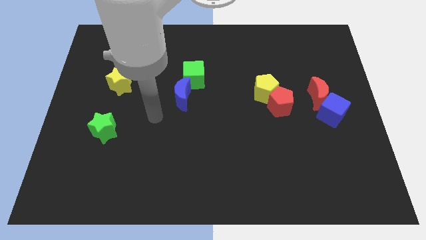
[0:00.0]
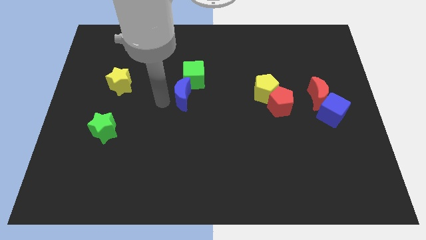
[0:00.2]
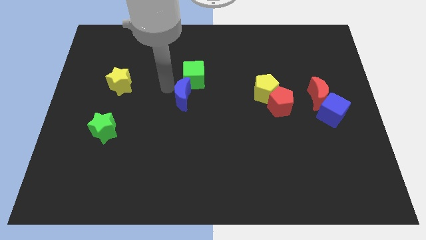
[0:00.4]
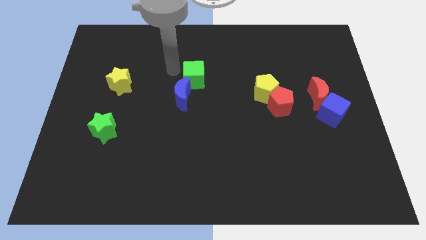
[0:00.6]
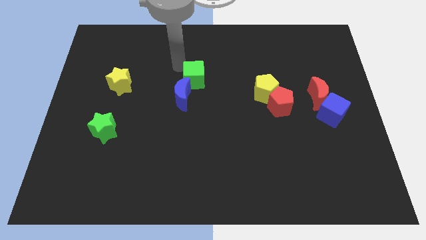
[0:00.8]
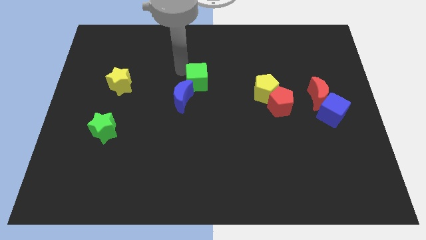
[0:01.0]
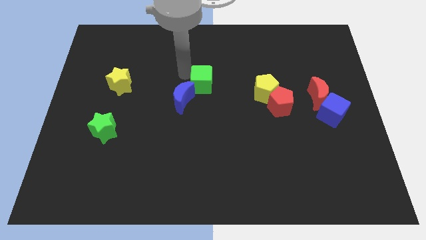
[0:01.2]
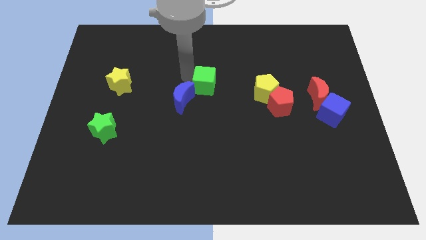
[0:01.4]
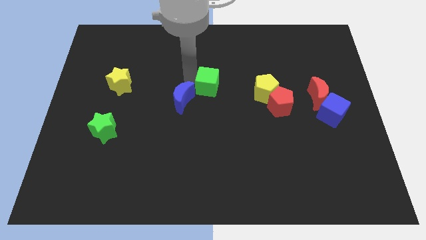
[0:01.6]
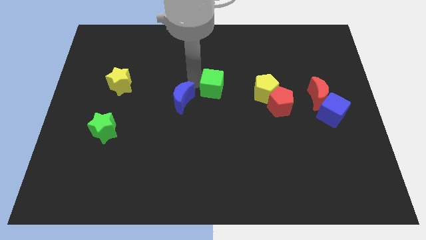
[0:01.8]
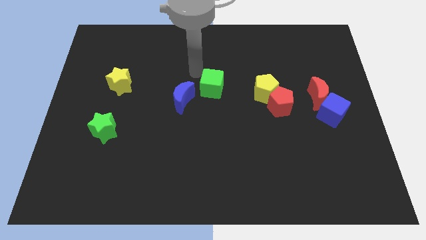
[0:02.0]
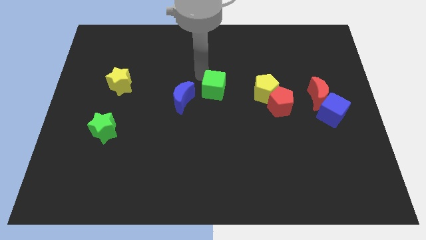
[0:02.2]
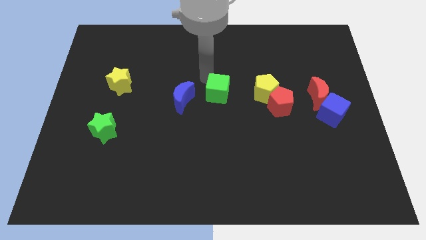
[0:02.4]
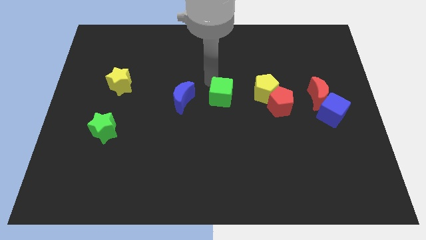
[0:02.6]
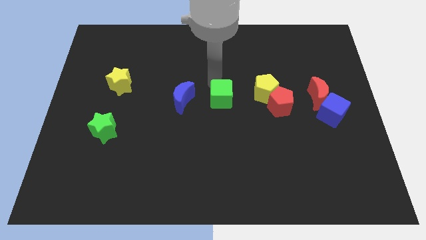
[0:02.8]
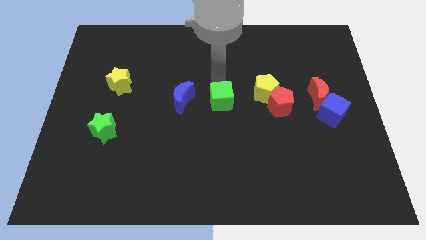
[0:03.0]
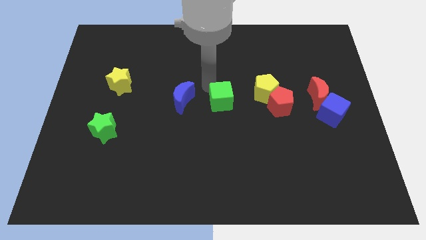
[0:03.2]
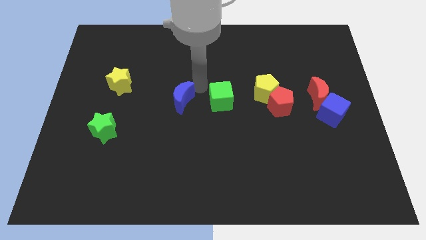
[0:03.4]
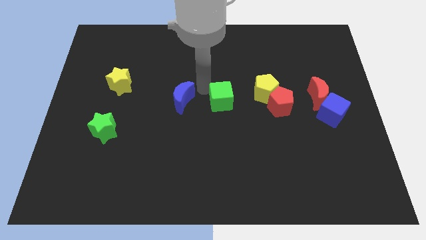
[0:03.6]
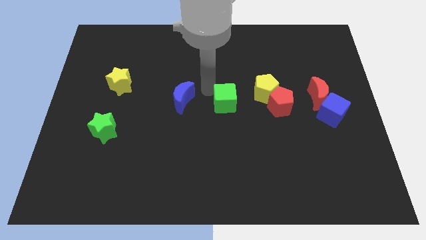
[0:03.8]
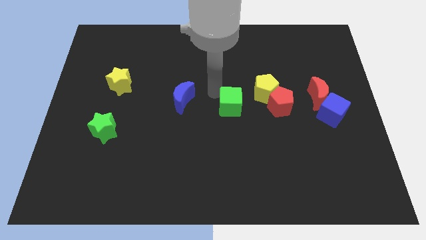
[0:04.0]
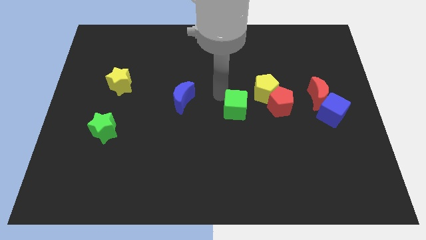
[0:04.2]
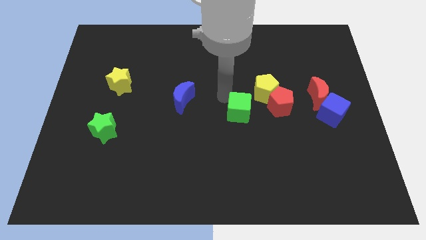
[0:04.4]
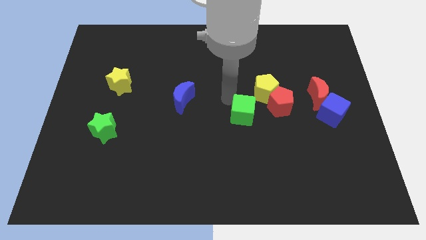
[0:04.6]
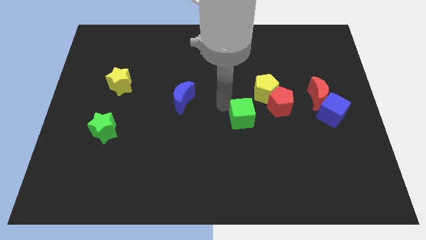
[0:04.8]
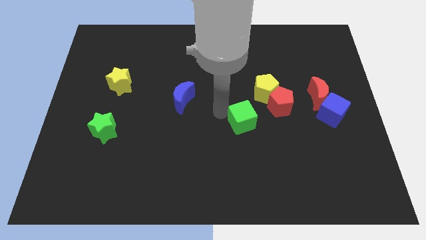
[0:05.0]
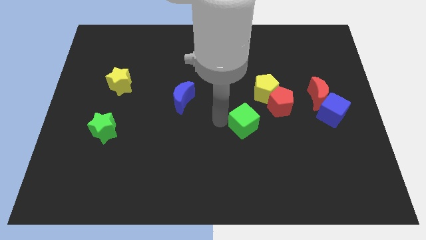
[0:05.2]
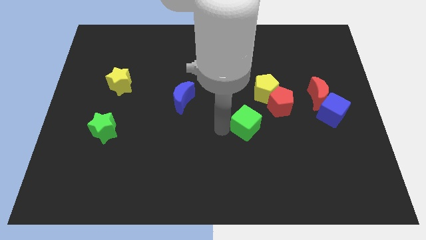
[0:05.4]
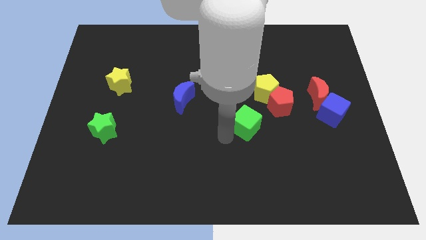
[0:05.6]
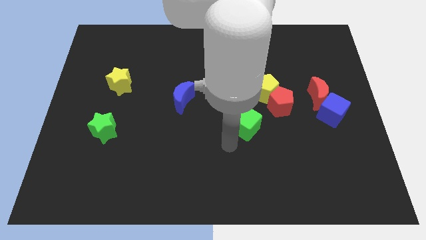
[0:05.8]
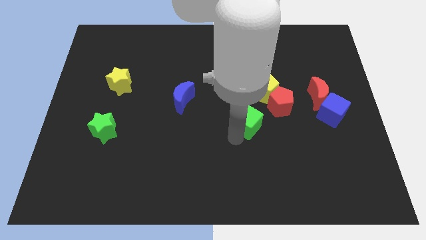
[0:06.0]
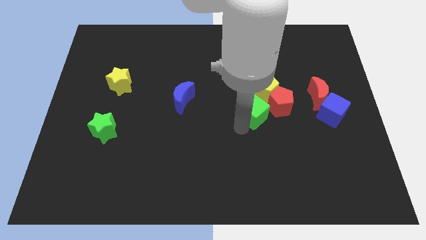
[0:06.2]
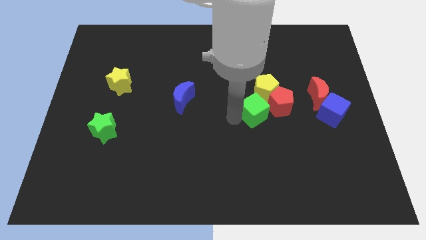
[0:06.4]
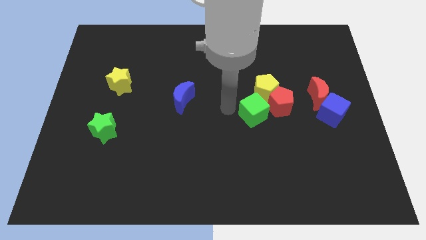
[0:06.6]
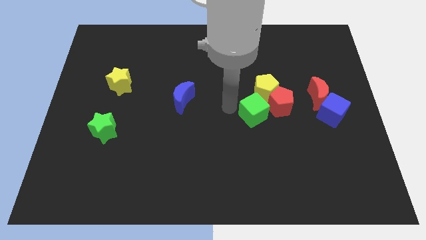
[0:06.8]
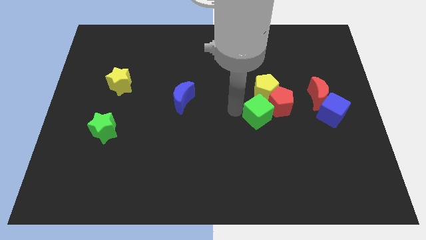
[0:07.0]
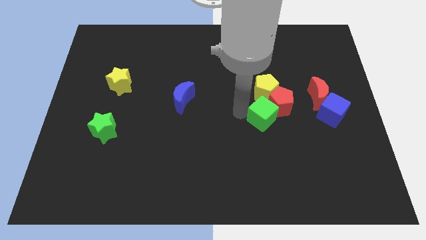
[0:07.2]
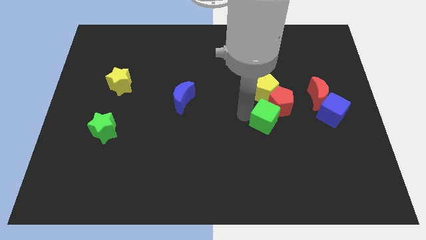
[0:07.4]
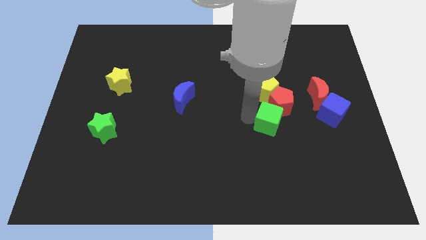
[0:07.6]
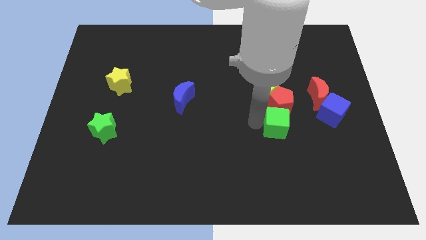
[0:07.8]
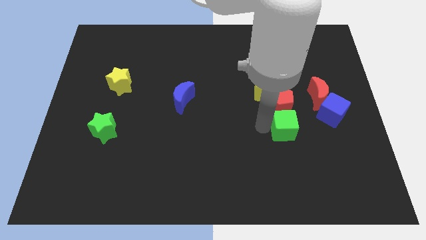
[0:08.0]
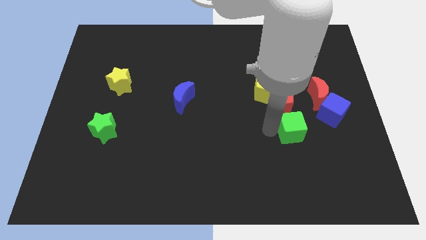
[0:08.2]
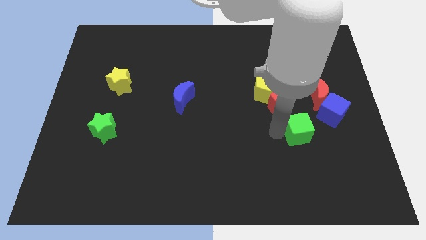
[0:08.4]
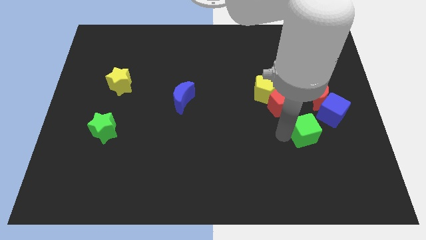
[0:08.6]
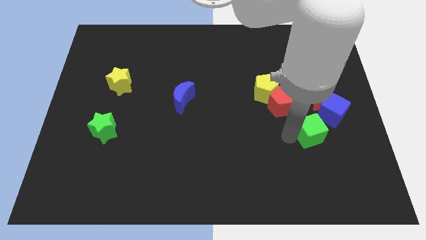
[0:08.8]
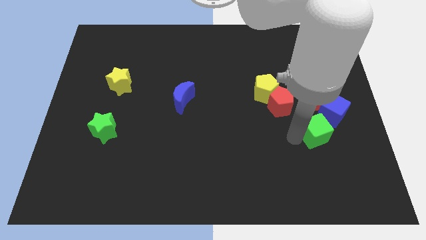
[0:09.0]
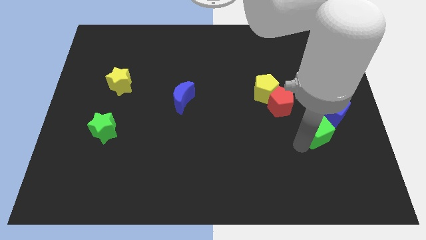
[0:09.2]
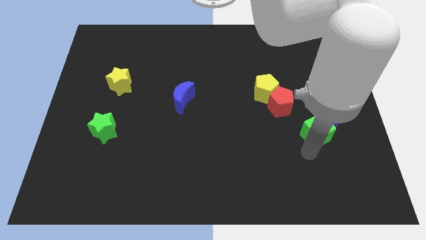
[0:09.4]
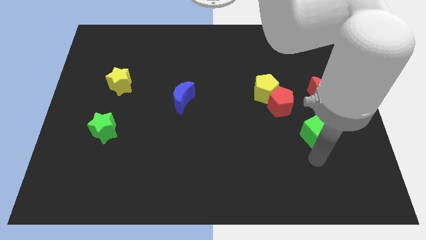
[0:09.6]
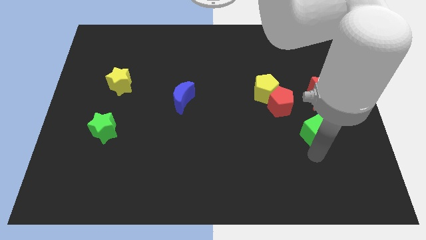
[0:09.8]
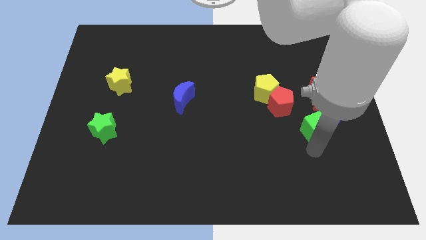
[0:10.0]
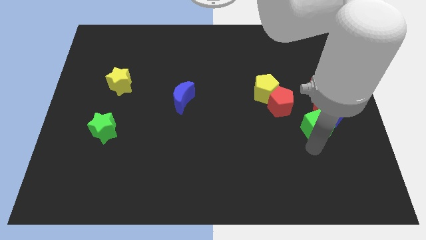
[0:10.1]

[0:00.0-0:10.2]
move the green cube close to the blue cube

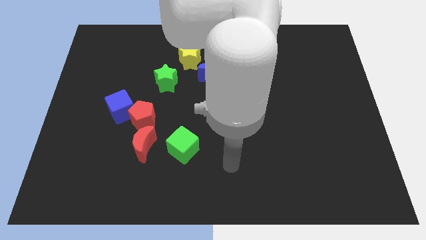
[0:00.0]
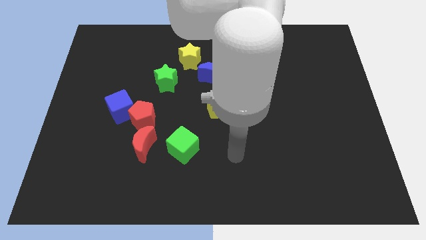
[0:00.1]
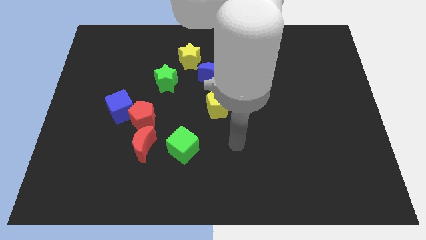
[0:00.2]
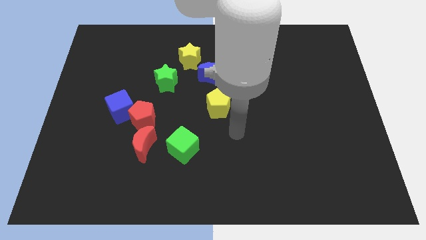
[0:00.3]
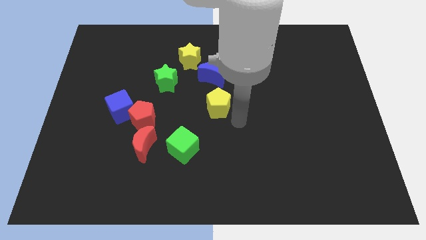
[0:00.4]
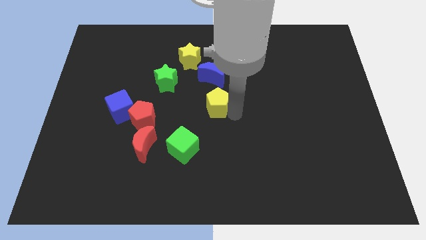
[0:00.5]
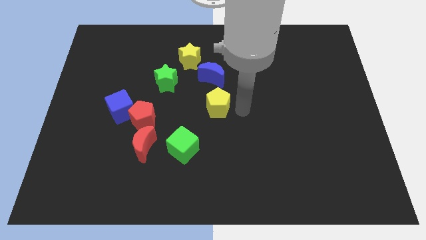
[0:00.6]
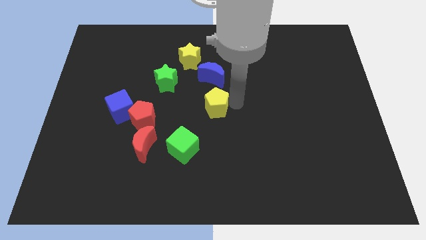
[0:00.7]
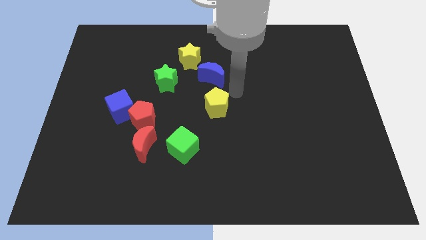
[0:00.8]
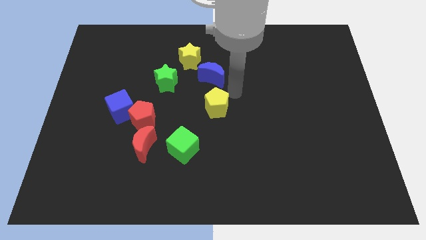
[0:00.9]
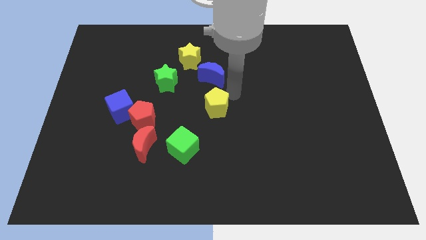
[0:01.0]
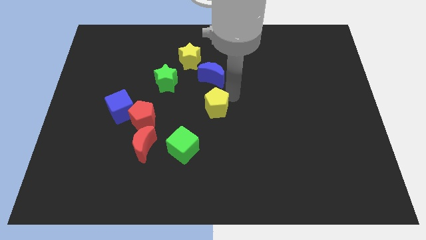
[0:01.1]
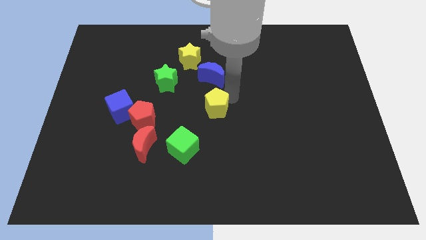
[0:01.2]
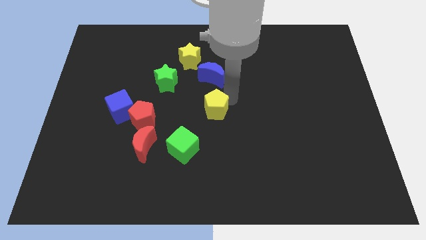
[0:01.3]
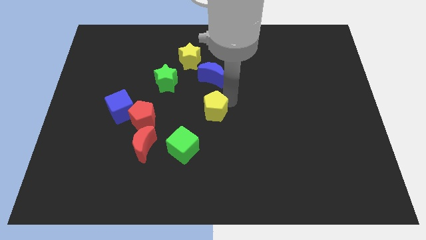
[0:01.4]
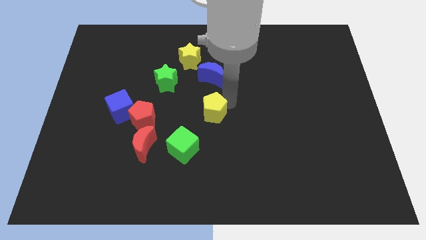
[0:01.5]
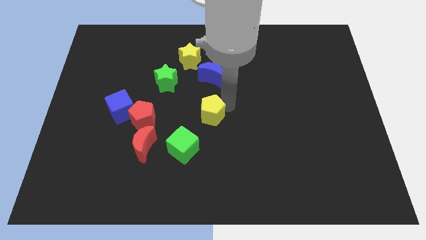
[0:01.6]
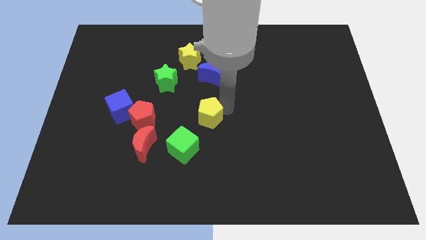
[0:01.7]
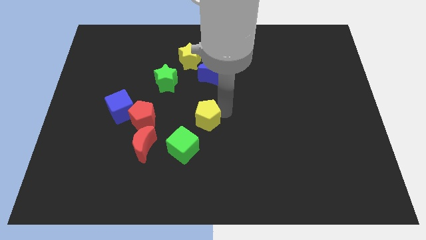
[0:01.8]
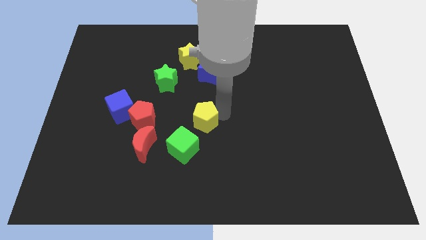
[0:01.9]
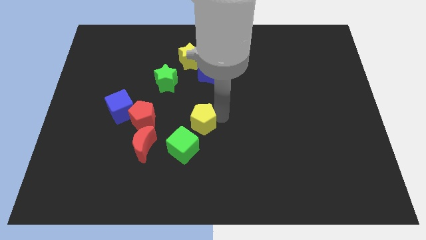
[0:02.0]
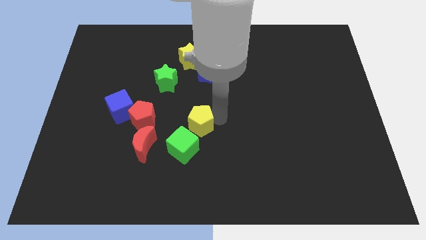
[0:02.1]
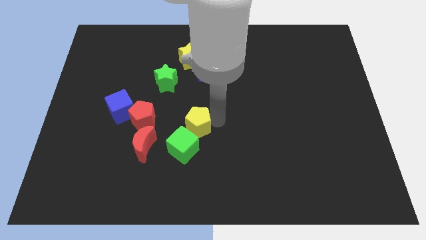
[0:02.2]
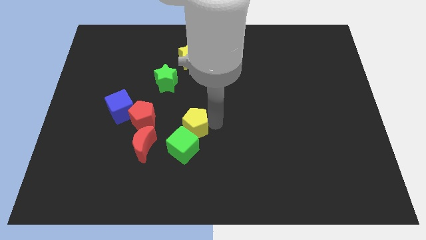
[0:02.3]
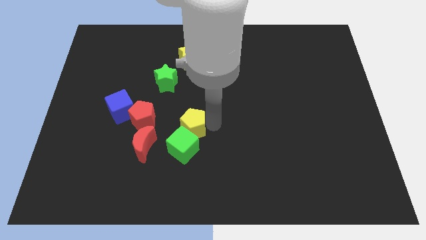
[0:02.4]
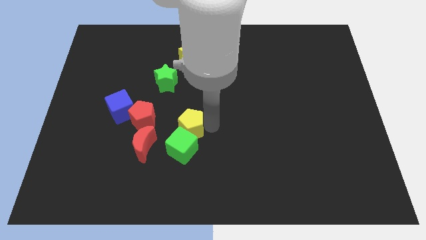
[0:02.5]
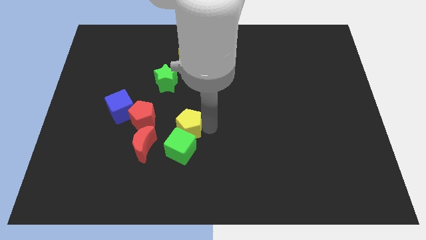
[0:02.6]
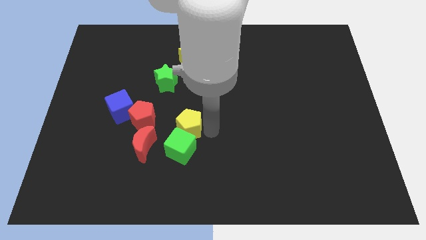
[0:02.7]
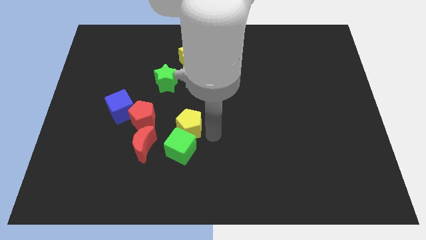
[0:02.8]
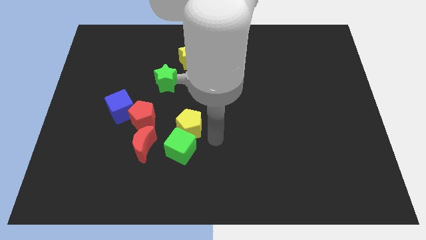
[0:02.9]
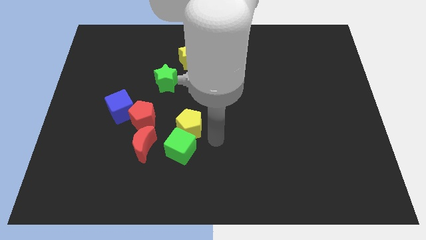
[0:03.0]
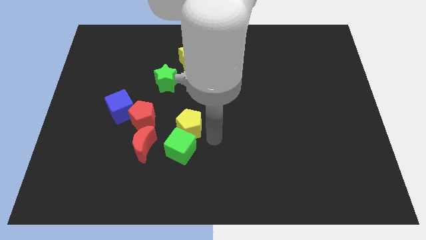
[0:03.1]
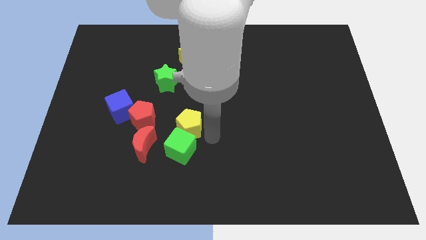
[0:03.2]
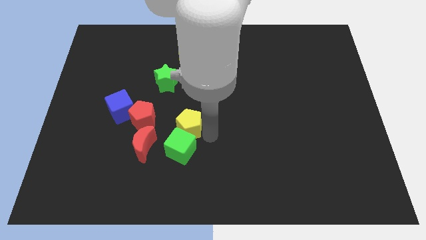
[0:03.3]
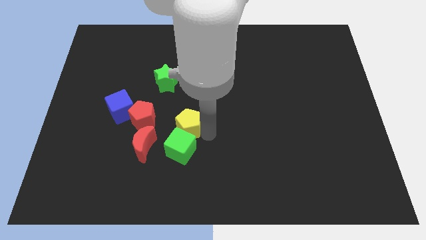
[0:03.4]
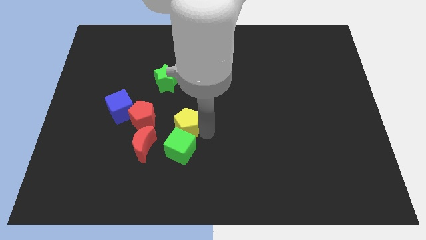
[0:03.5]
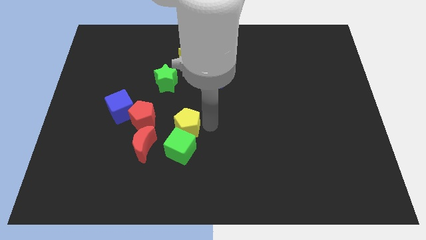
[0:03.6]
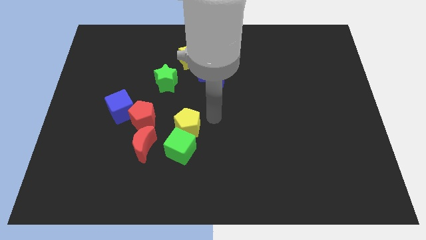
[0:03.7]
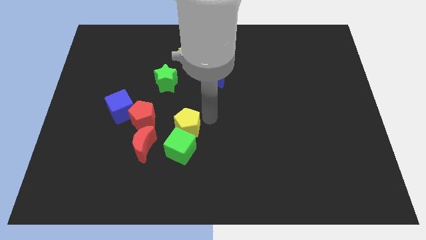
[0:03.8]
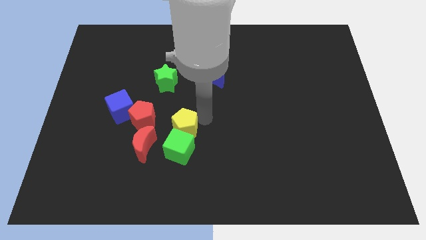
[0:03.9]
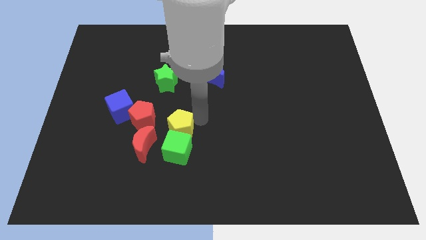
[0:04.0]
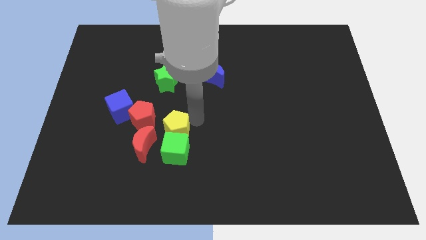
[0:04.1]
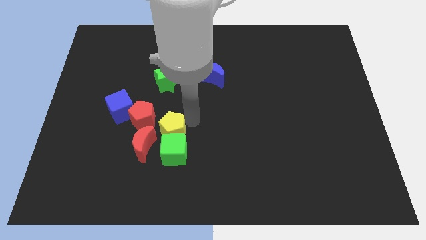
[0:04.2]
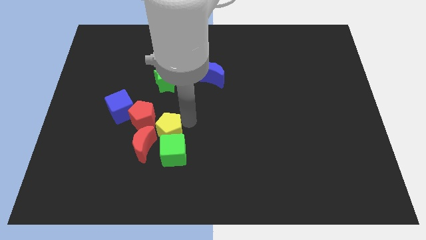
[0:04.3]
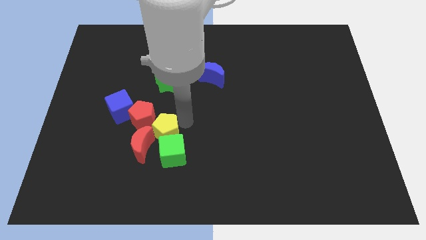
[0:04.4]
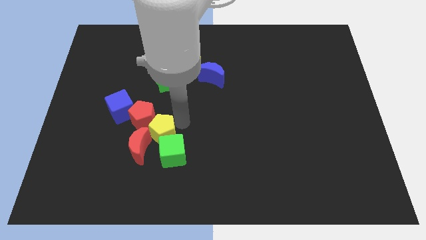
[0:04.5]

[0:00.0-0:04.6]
push the yellow pentagon close to the red moon
